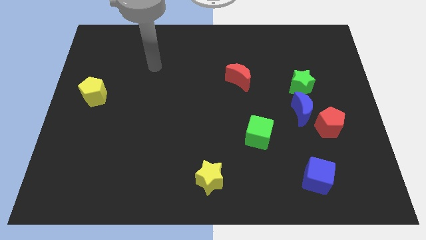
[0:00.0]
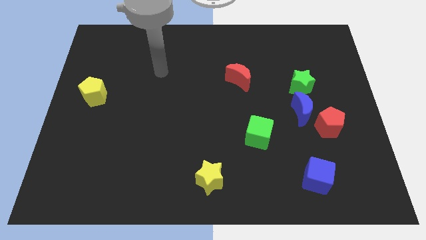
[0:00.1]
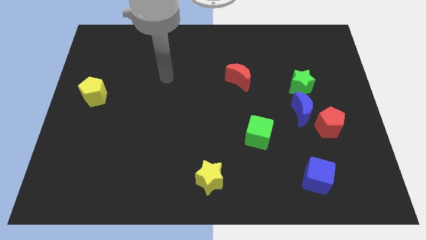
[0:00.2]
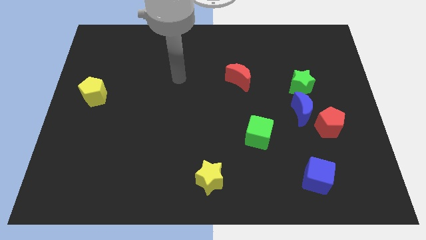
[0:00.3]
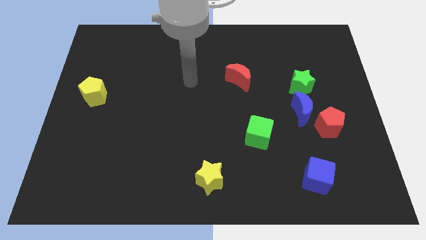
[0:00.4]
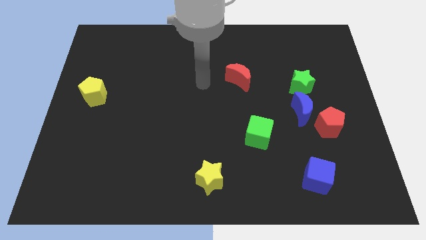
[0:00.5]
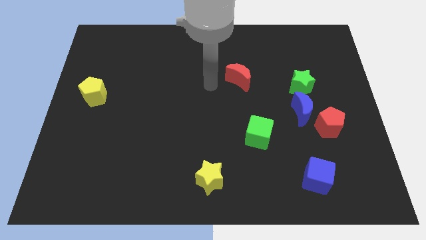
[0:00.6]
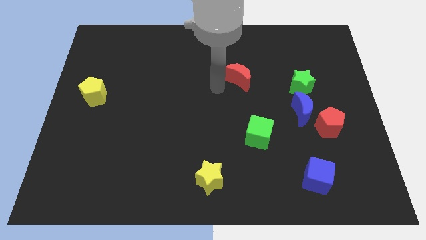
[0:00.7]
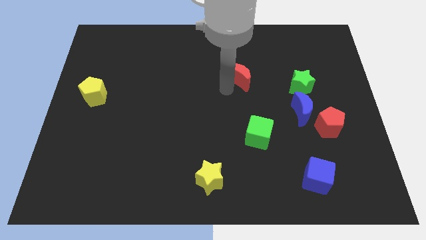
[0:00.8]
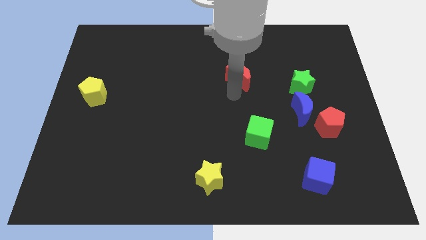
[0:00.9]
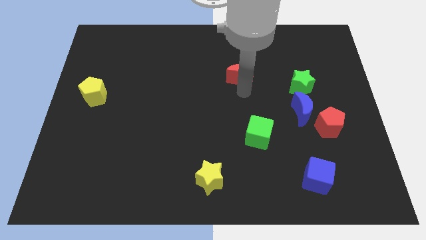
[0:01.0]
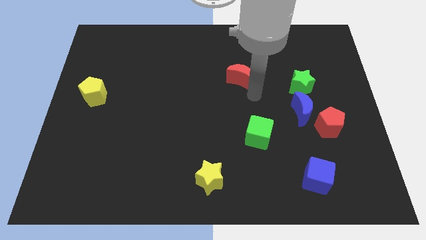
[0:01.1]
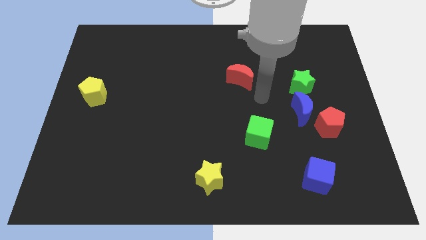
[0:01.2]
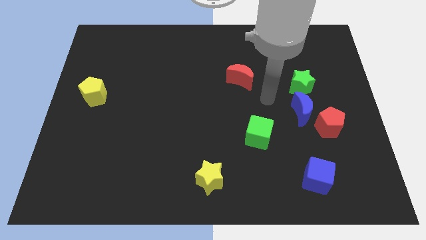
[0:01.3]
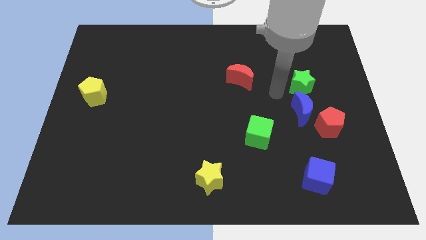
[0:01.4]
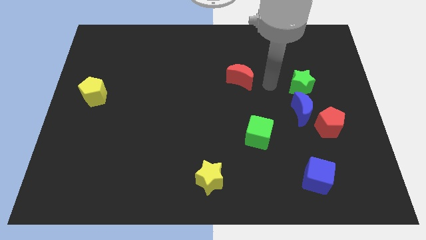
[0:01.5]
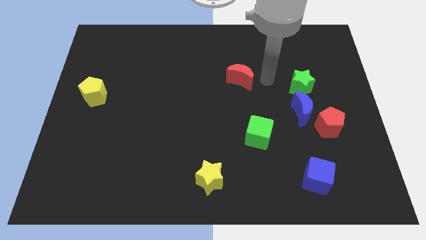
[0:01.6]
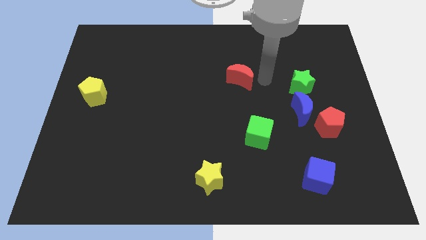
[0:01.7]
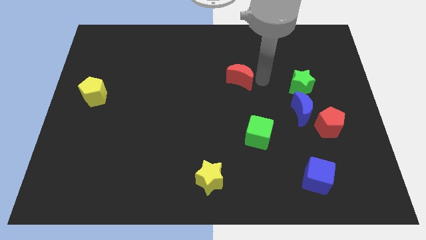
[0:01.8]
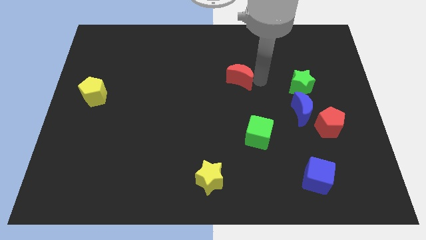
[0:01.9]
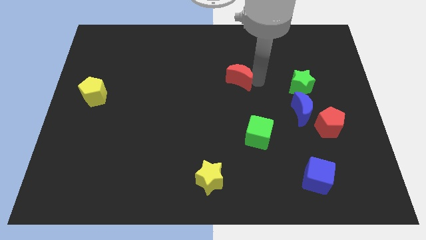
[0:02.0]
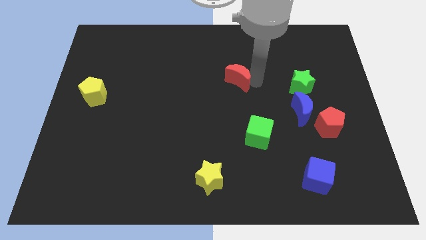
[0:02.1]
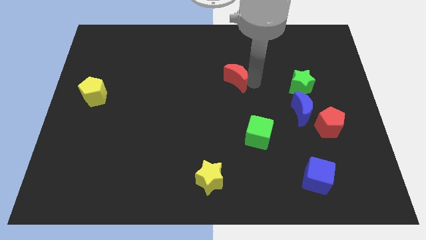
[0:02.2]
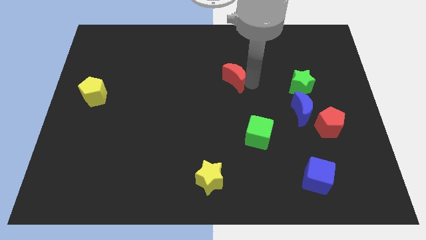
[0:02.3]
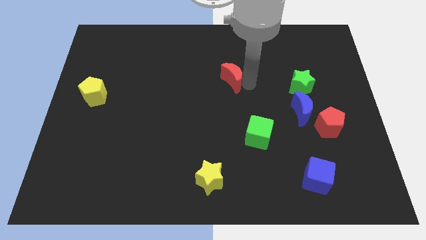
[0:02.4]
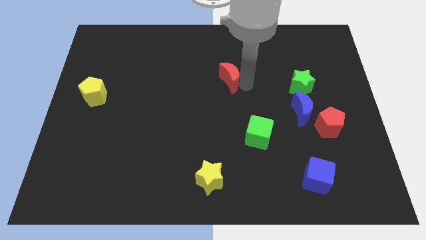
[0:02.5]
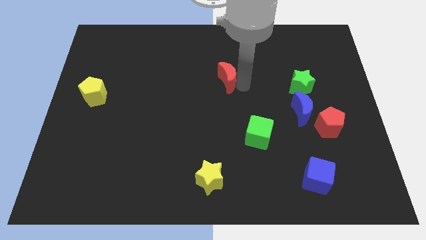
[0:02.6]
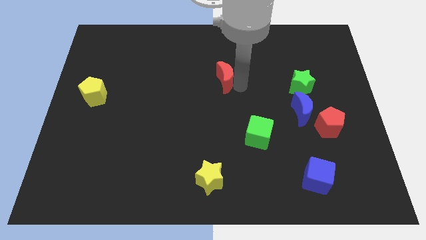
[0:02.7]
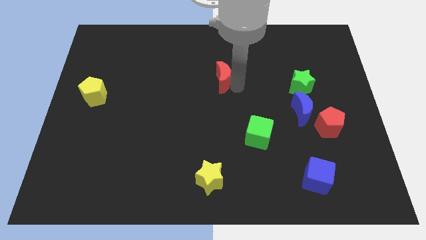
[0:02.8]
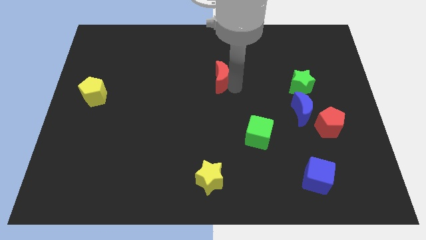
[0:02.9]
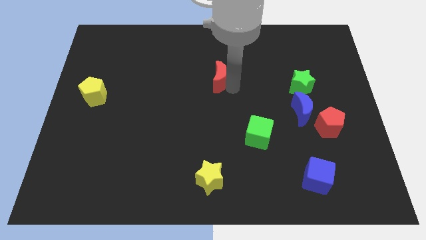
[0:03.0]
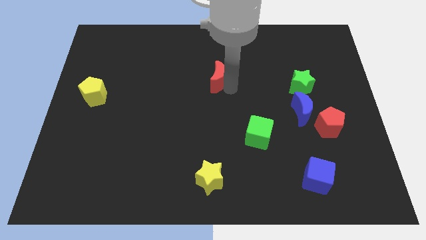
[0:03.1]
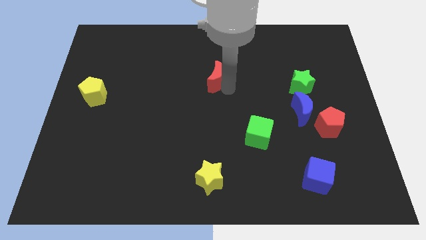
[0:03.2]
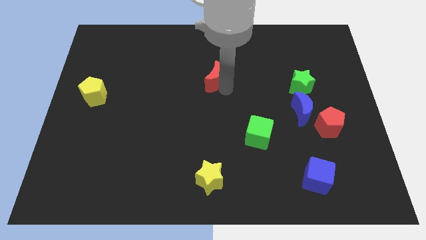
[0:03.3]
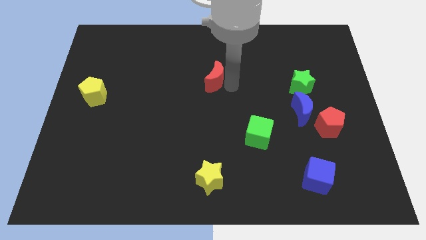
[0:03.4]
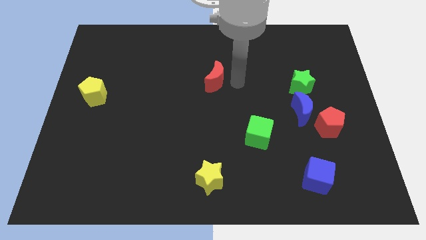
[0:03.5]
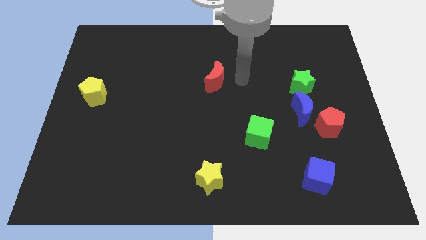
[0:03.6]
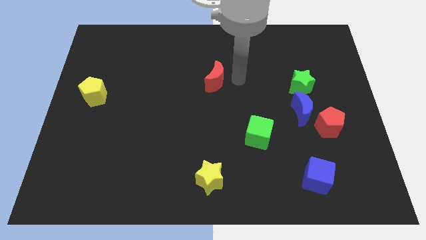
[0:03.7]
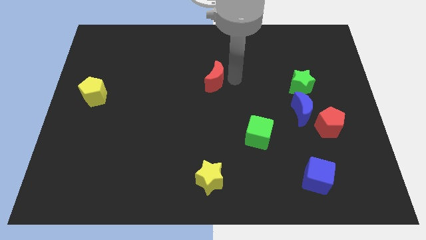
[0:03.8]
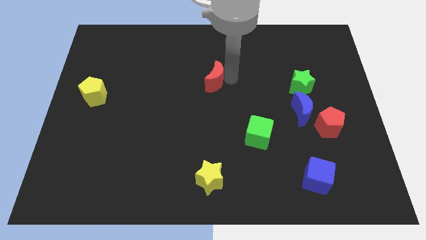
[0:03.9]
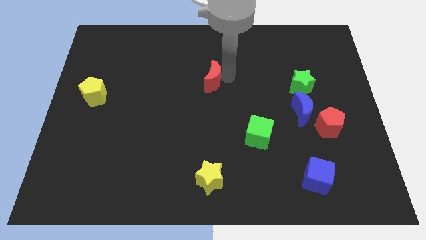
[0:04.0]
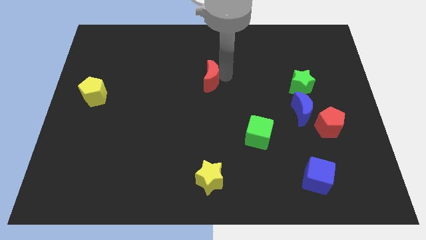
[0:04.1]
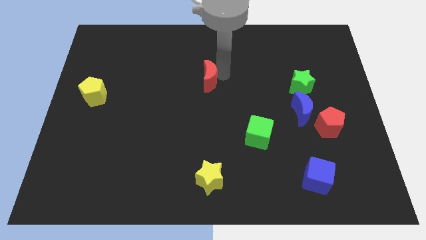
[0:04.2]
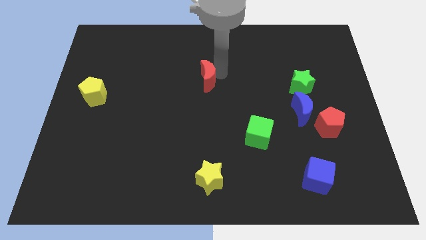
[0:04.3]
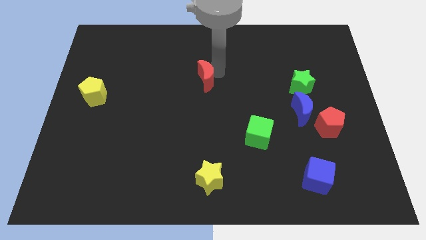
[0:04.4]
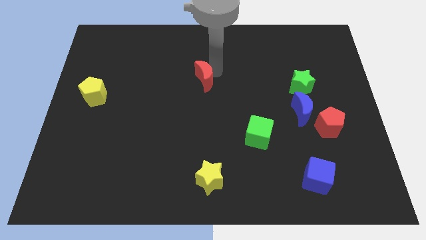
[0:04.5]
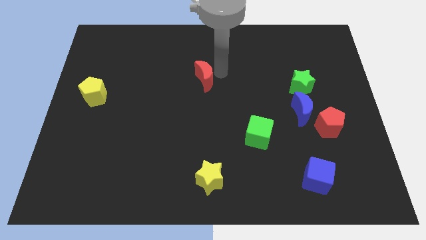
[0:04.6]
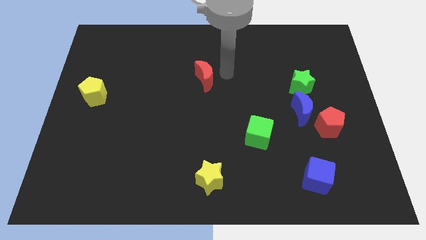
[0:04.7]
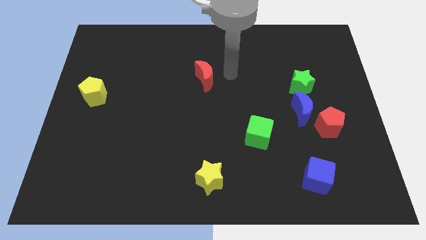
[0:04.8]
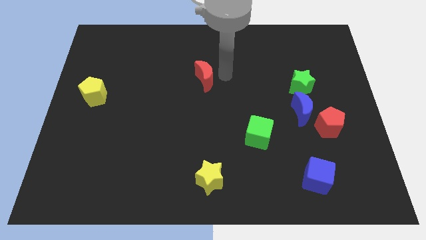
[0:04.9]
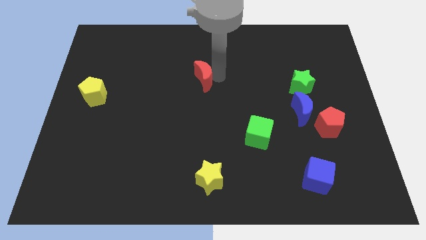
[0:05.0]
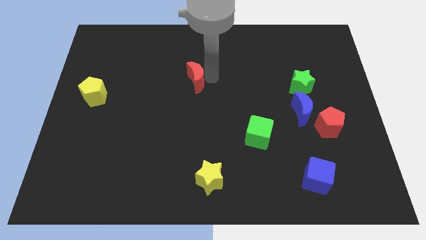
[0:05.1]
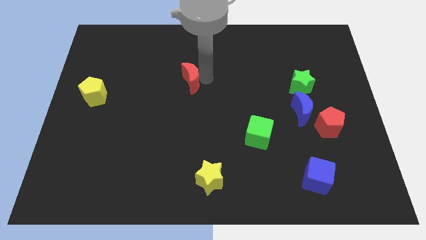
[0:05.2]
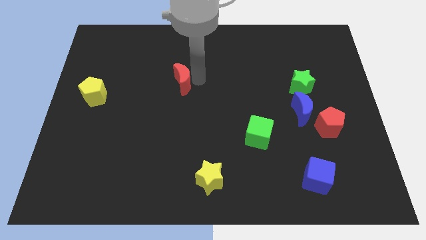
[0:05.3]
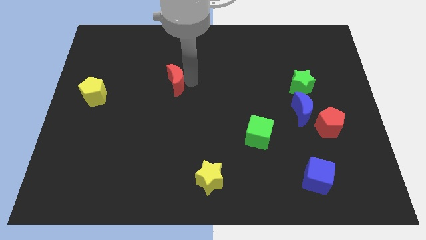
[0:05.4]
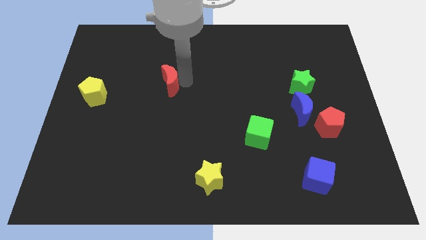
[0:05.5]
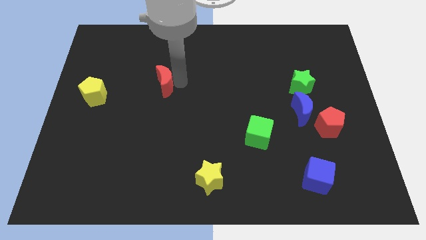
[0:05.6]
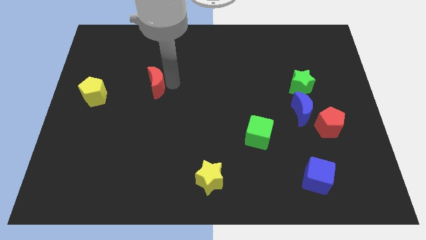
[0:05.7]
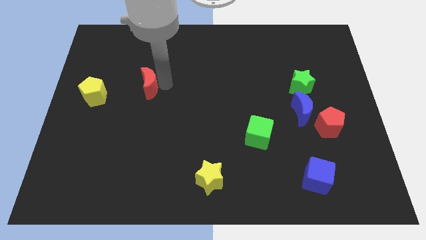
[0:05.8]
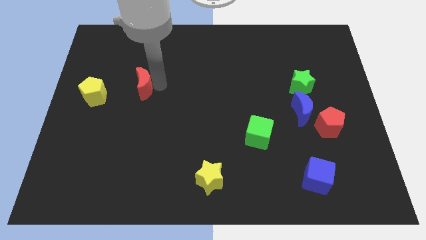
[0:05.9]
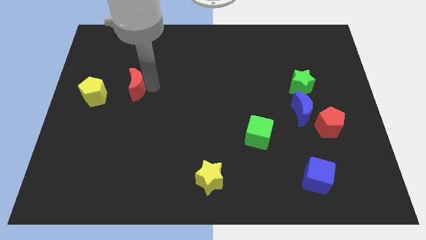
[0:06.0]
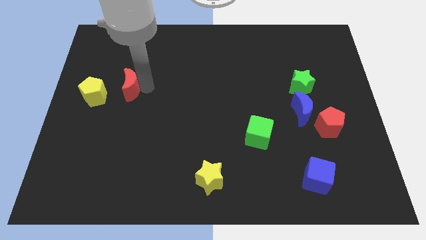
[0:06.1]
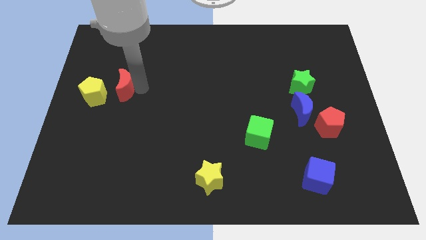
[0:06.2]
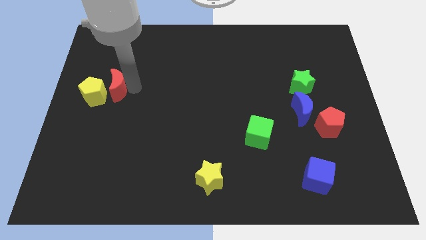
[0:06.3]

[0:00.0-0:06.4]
move the red moon next to the yellow pentagon
